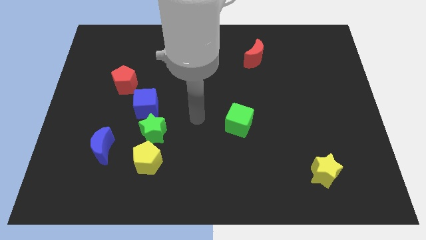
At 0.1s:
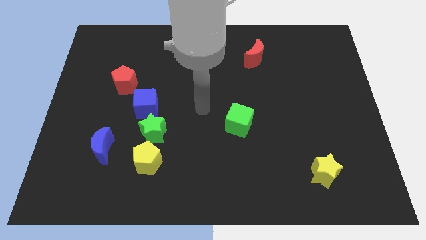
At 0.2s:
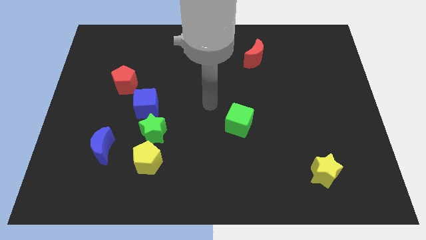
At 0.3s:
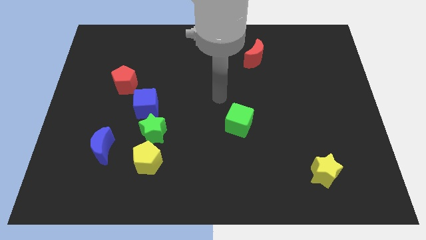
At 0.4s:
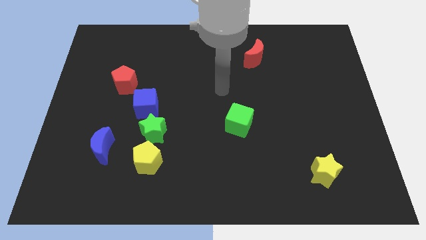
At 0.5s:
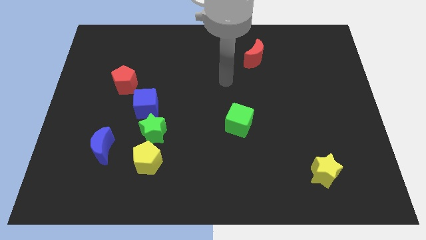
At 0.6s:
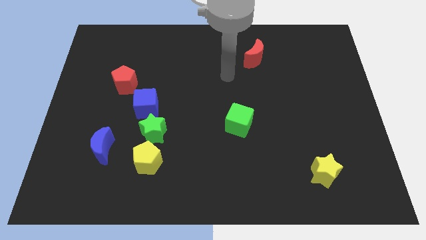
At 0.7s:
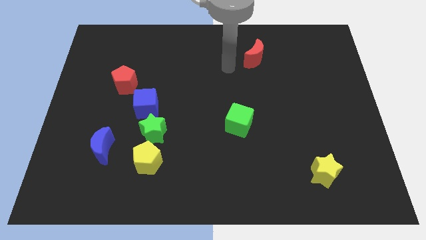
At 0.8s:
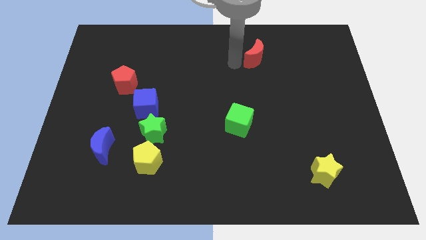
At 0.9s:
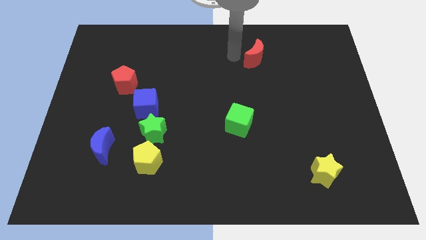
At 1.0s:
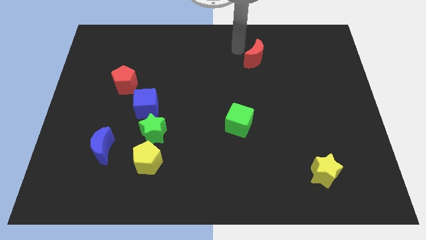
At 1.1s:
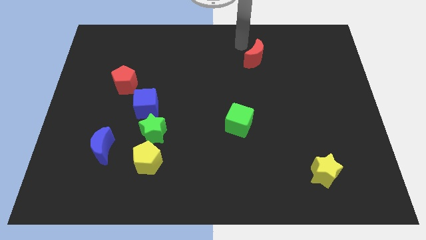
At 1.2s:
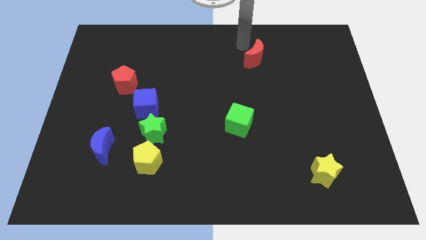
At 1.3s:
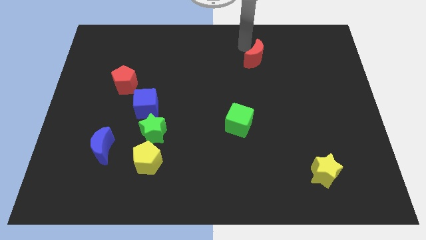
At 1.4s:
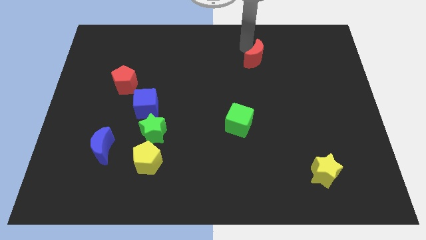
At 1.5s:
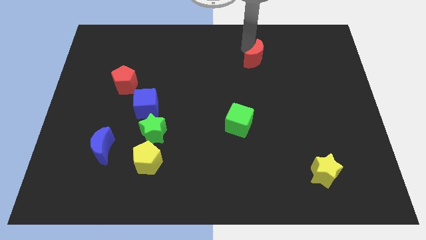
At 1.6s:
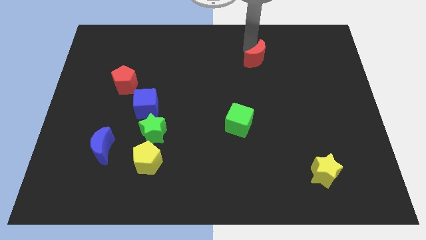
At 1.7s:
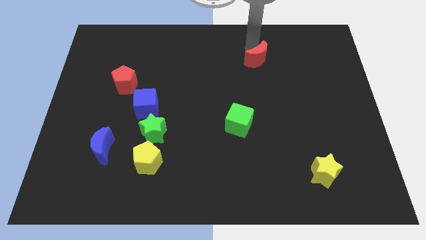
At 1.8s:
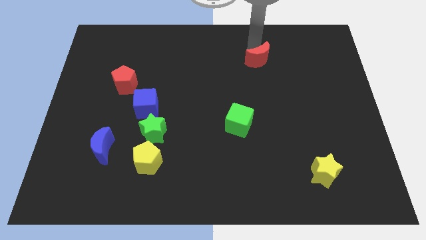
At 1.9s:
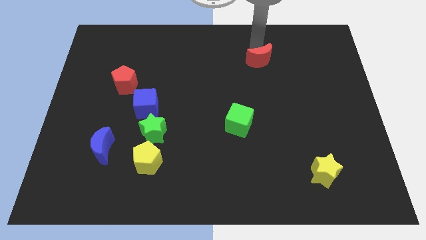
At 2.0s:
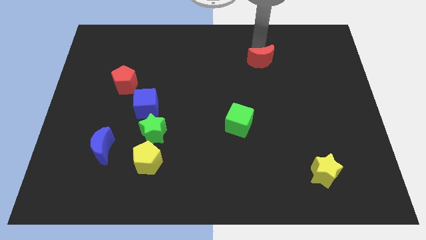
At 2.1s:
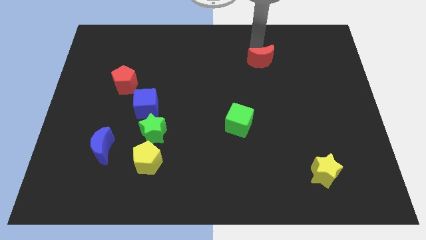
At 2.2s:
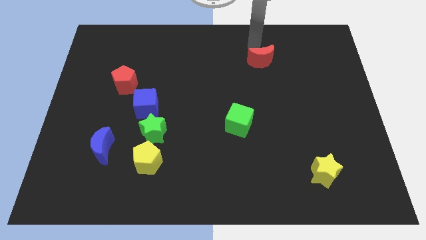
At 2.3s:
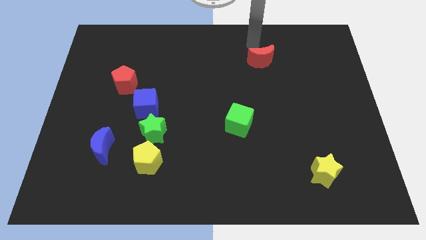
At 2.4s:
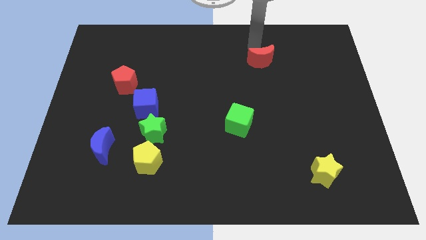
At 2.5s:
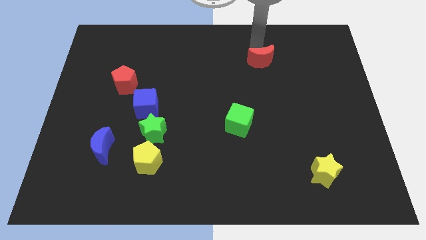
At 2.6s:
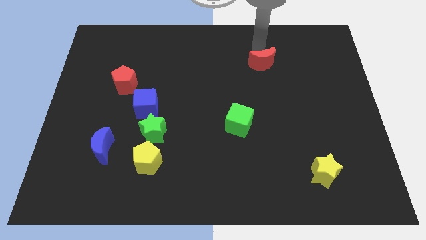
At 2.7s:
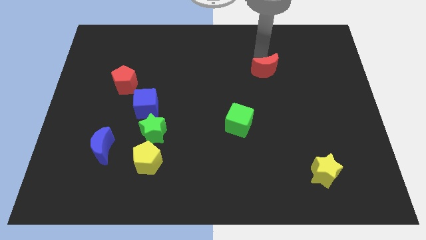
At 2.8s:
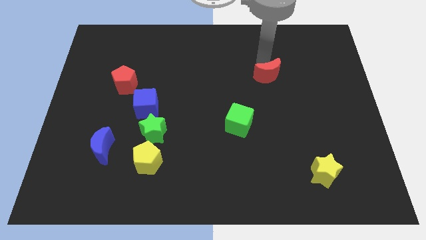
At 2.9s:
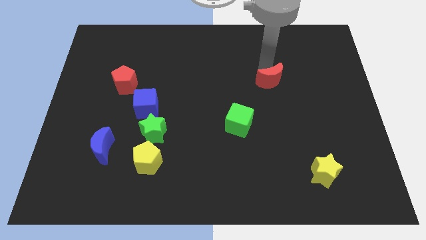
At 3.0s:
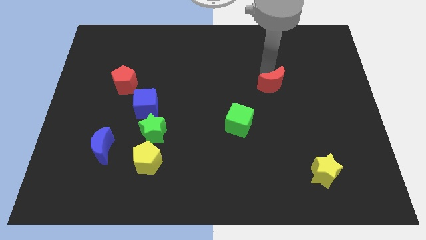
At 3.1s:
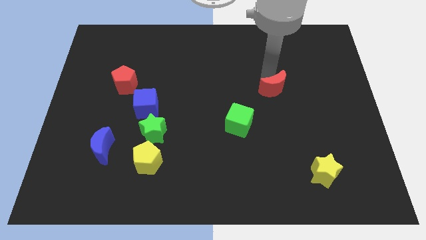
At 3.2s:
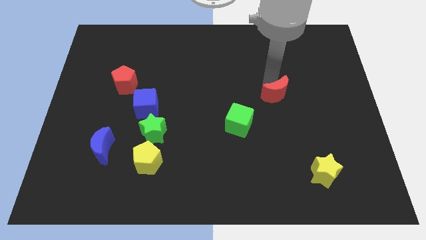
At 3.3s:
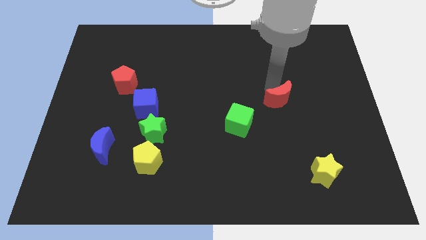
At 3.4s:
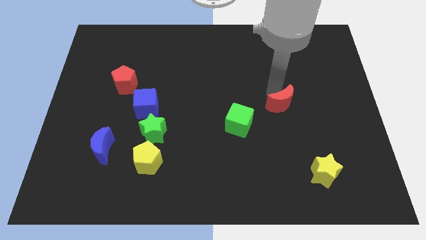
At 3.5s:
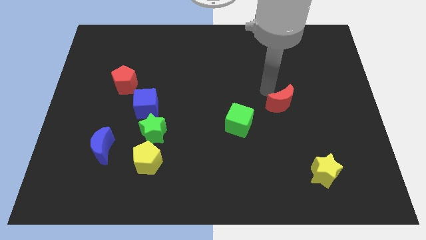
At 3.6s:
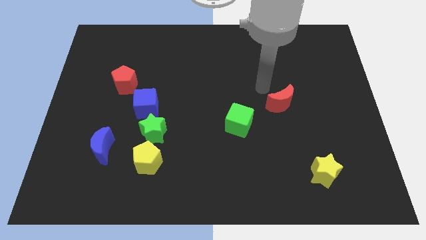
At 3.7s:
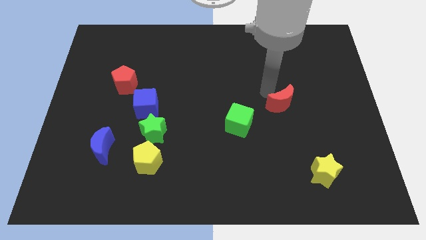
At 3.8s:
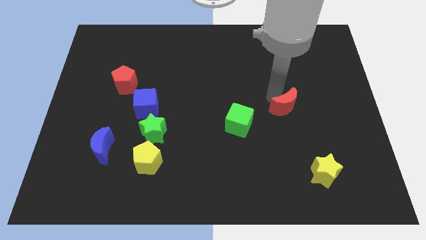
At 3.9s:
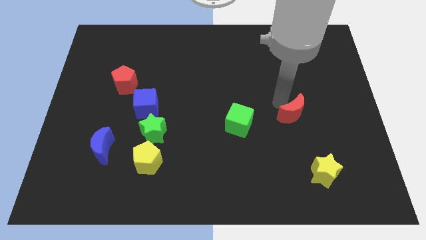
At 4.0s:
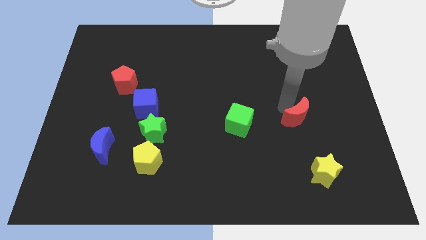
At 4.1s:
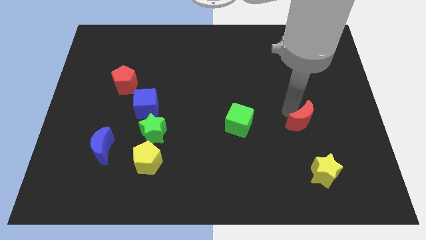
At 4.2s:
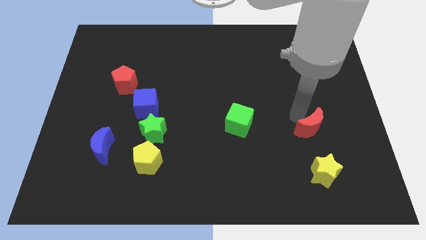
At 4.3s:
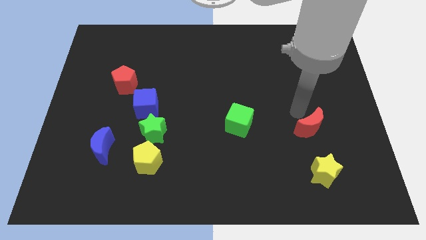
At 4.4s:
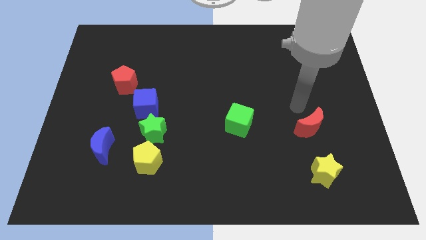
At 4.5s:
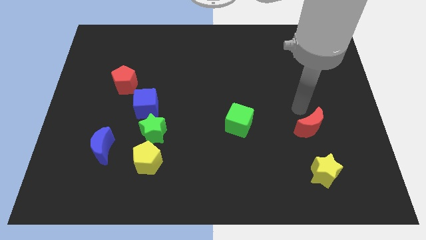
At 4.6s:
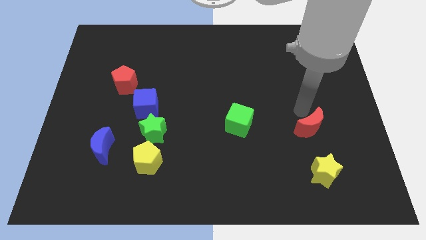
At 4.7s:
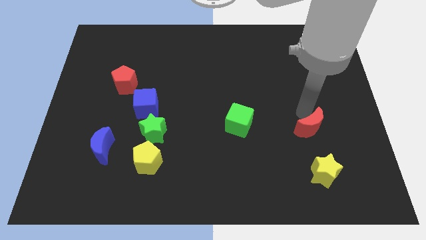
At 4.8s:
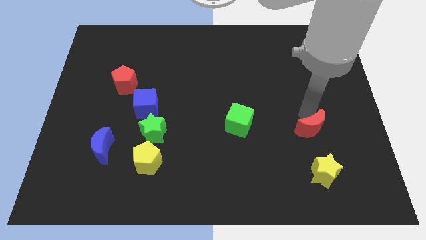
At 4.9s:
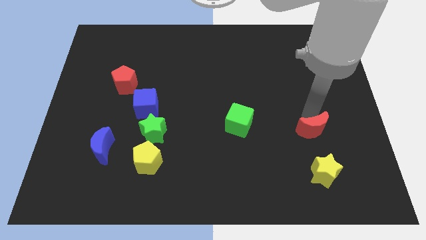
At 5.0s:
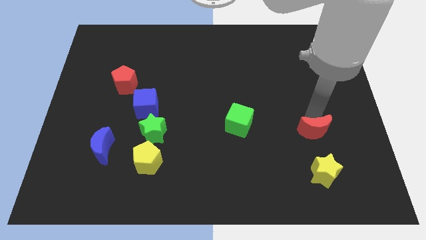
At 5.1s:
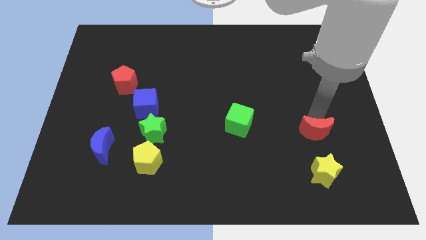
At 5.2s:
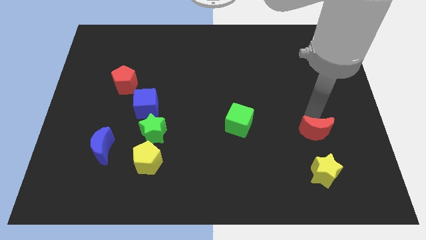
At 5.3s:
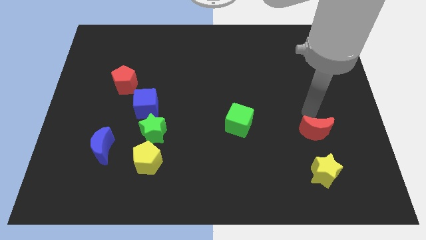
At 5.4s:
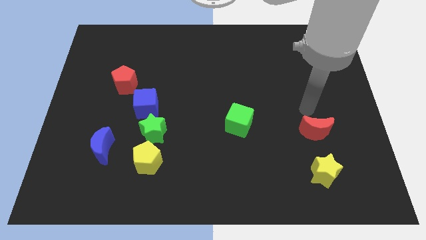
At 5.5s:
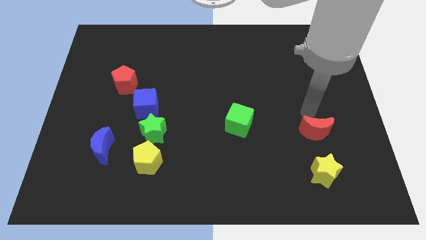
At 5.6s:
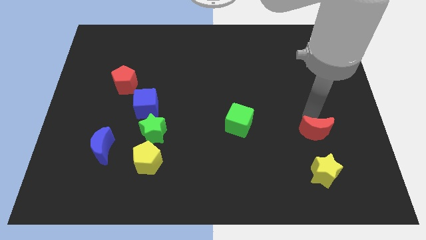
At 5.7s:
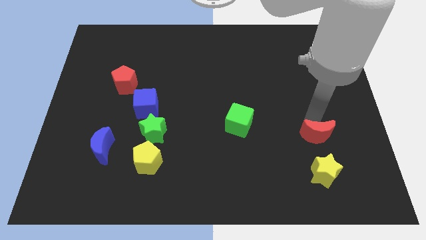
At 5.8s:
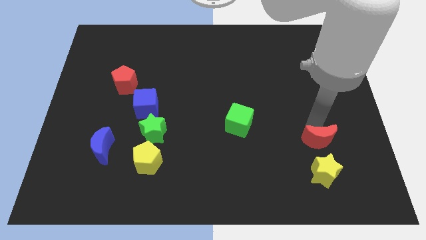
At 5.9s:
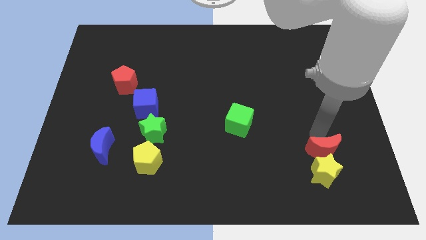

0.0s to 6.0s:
slide the red moon to the yellow star

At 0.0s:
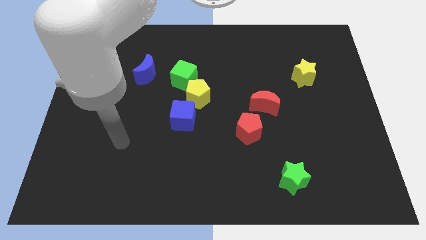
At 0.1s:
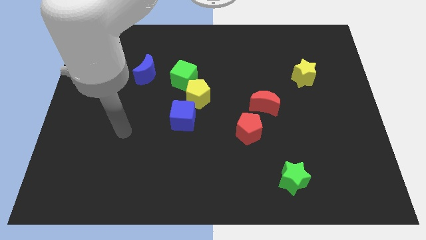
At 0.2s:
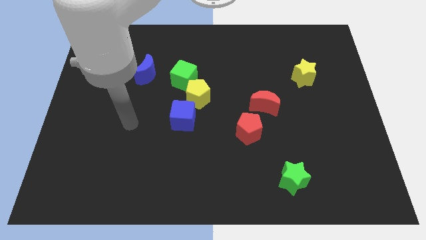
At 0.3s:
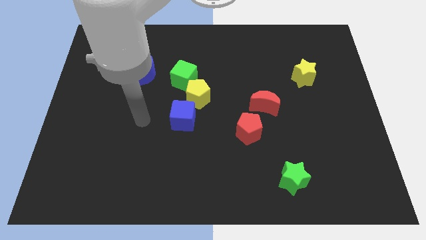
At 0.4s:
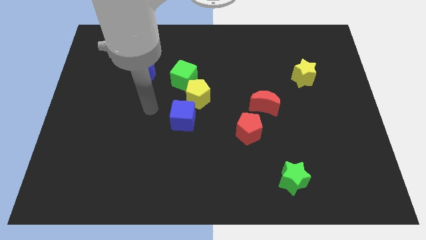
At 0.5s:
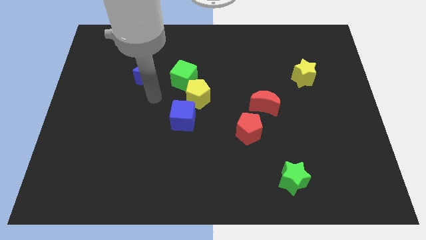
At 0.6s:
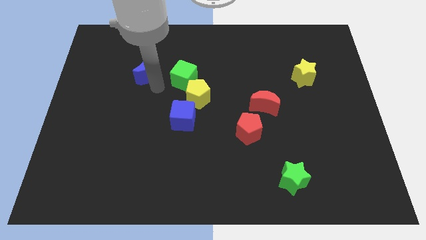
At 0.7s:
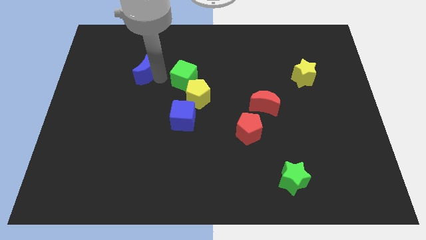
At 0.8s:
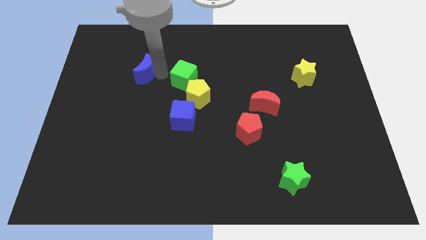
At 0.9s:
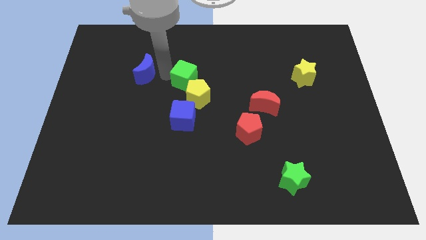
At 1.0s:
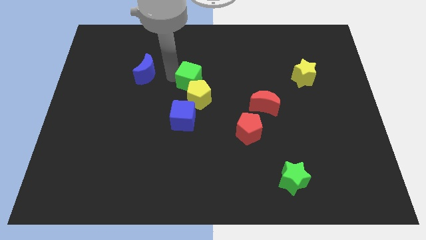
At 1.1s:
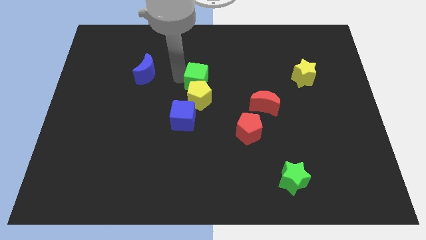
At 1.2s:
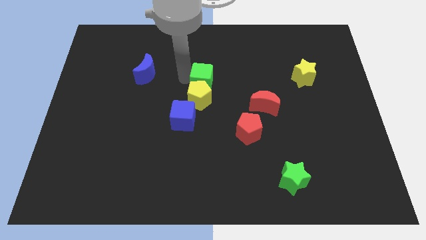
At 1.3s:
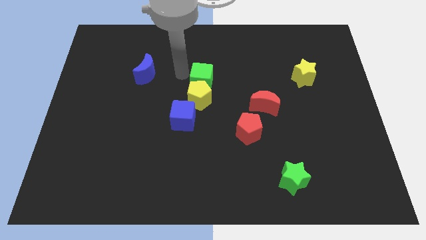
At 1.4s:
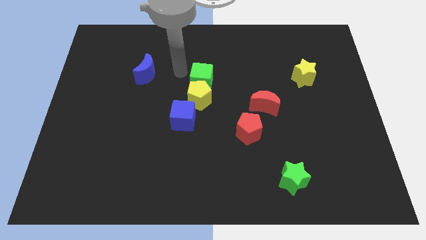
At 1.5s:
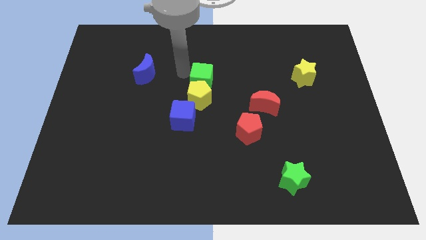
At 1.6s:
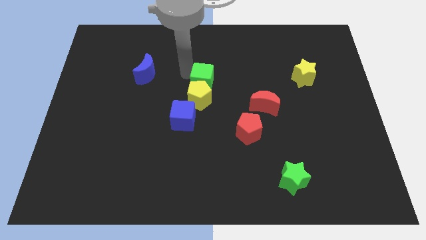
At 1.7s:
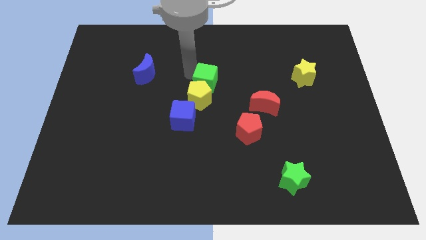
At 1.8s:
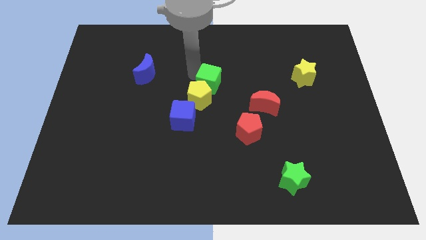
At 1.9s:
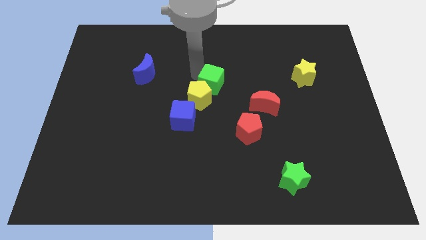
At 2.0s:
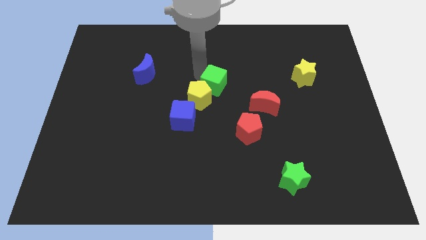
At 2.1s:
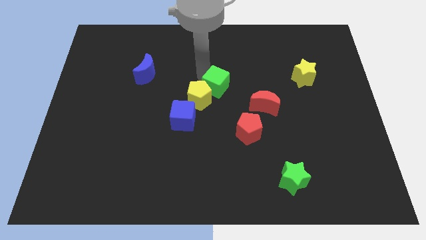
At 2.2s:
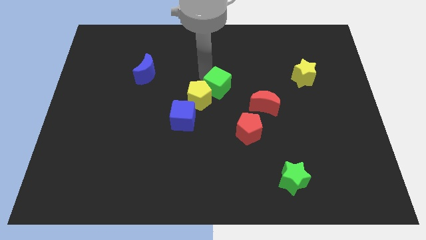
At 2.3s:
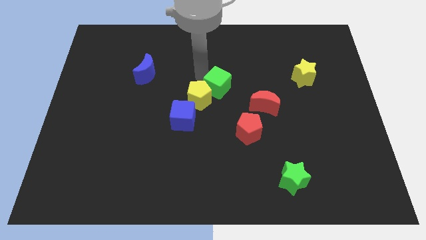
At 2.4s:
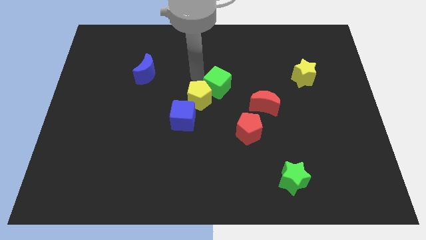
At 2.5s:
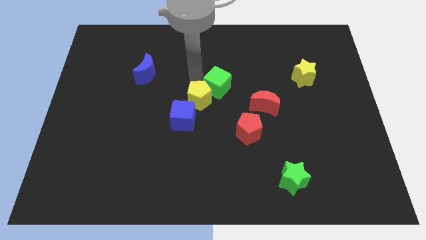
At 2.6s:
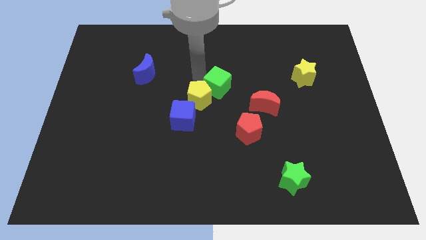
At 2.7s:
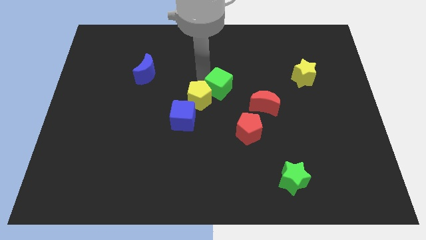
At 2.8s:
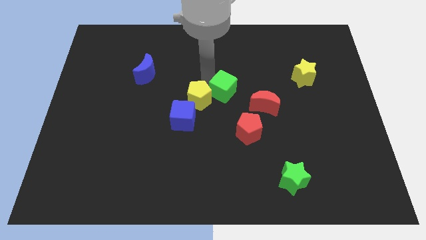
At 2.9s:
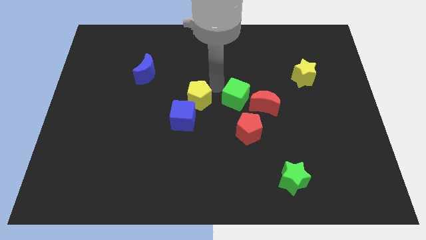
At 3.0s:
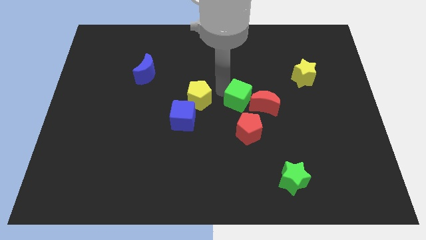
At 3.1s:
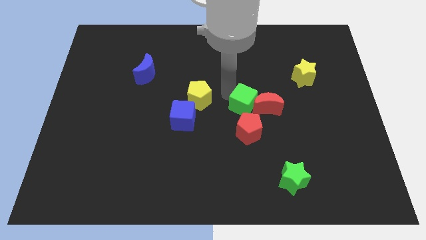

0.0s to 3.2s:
move the green cube to the red moon
